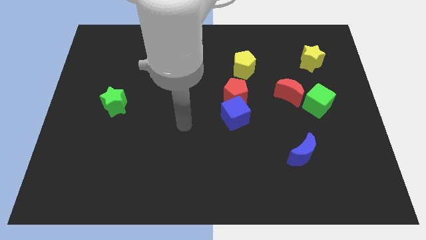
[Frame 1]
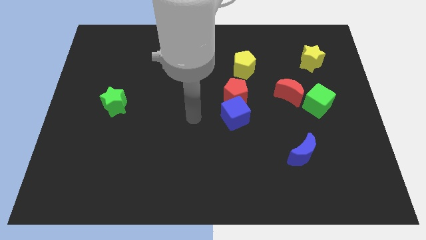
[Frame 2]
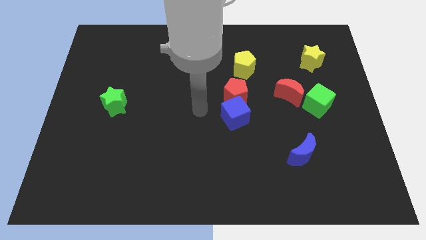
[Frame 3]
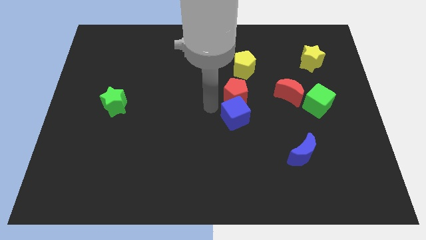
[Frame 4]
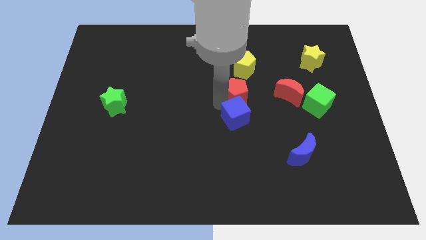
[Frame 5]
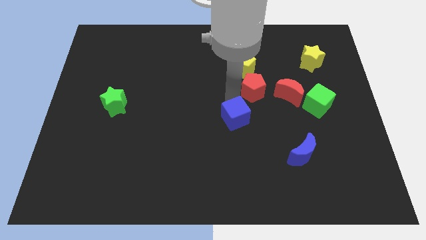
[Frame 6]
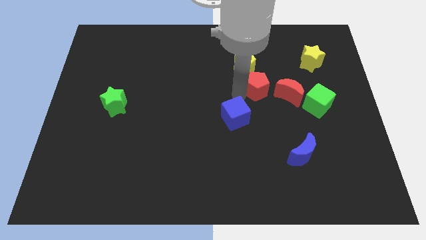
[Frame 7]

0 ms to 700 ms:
pull the blue cube apart from the red pentagon

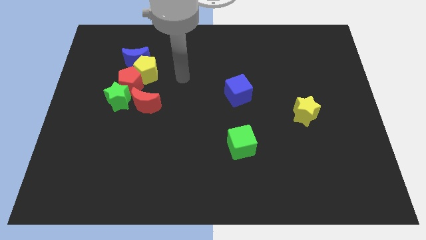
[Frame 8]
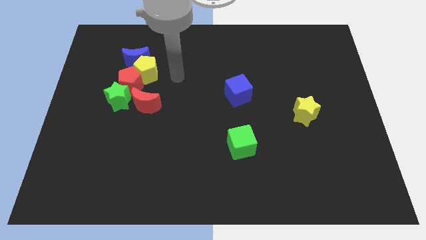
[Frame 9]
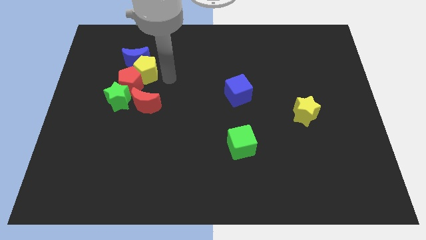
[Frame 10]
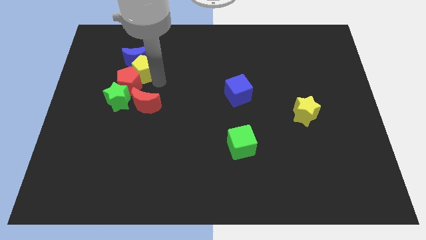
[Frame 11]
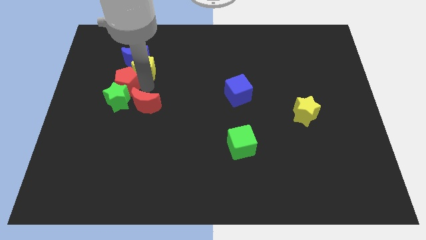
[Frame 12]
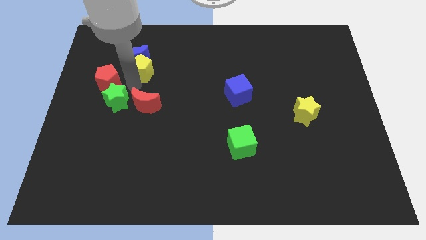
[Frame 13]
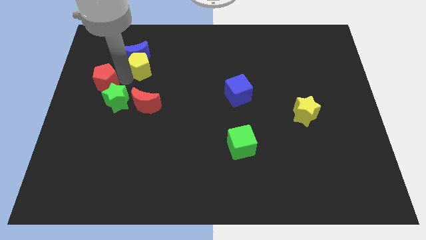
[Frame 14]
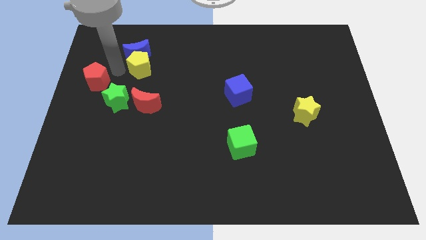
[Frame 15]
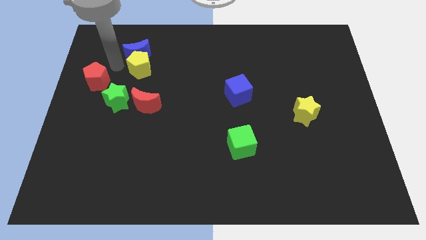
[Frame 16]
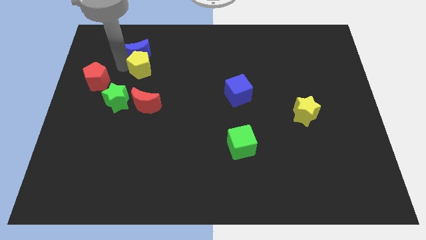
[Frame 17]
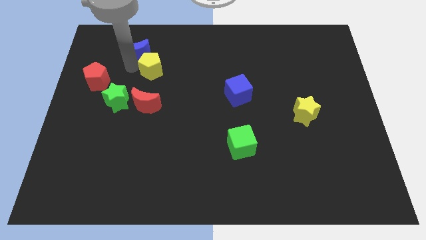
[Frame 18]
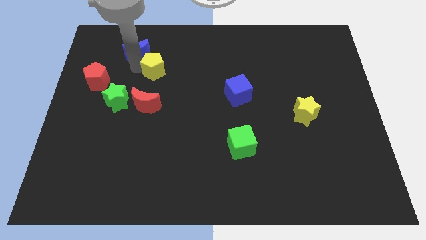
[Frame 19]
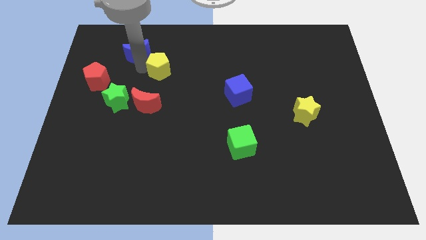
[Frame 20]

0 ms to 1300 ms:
separate the yellow pentagon from the blue moon and red pentagon

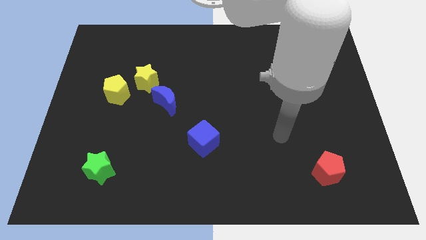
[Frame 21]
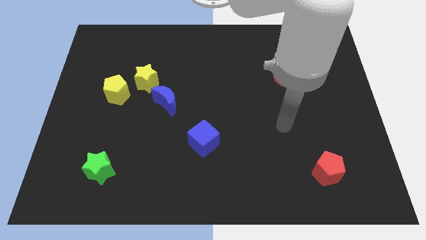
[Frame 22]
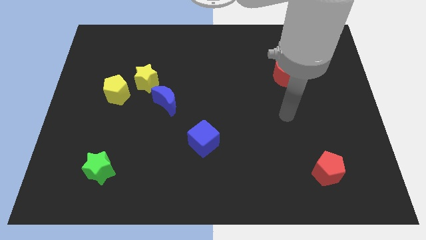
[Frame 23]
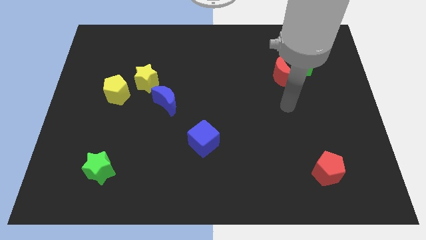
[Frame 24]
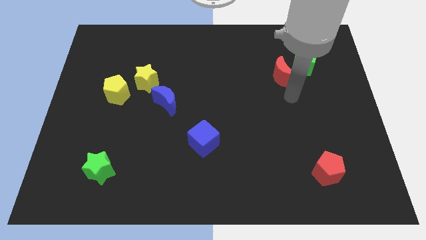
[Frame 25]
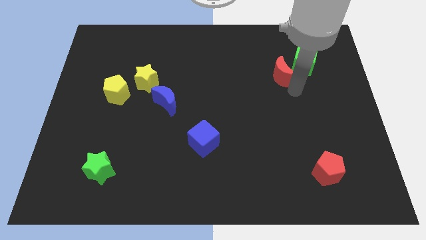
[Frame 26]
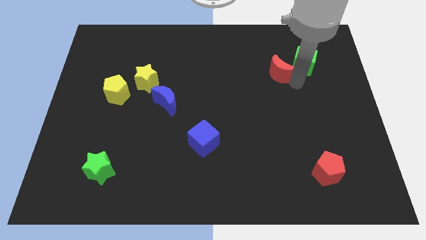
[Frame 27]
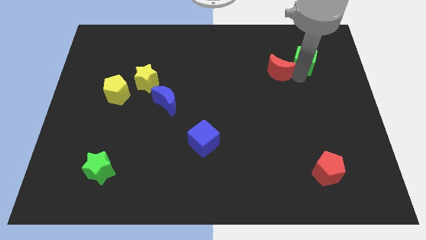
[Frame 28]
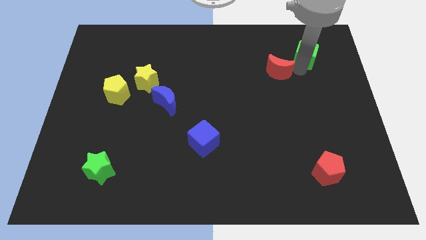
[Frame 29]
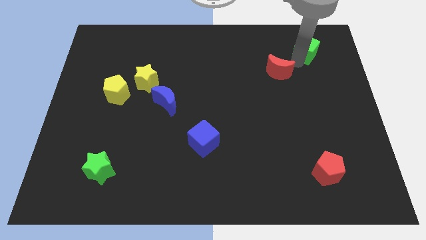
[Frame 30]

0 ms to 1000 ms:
separate the red moon from the green cube

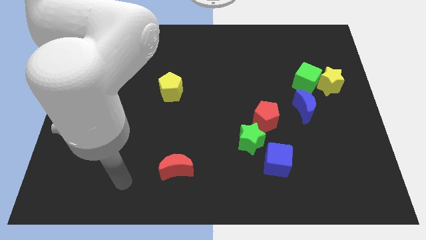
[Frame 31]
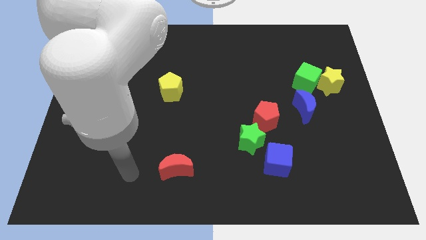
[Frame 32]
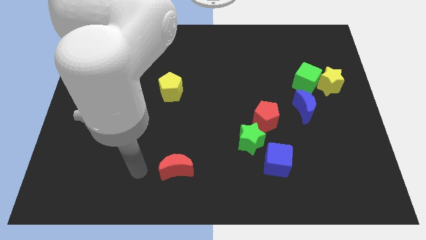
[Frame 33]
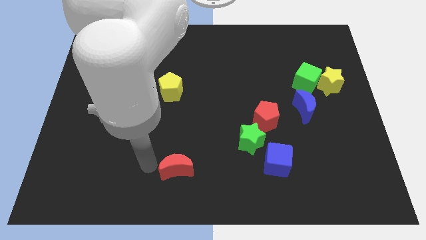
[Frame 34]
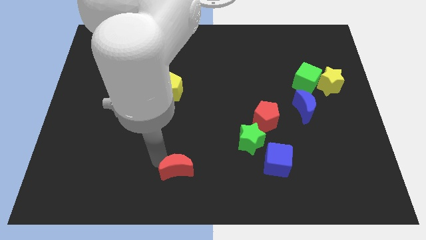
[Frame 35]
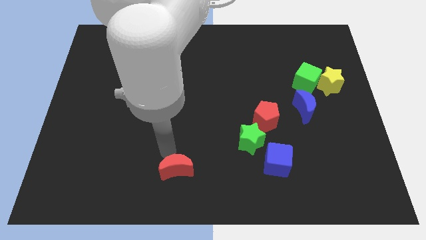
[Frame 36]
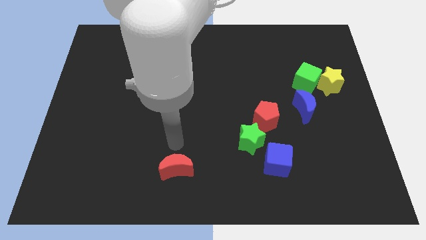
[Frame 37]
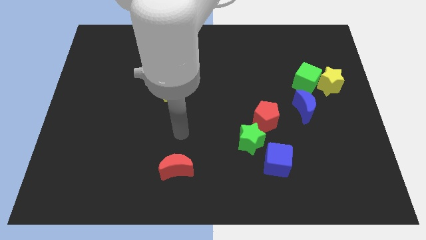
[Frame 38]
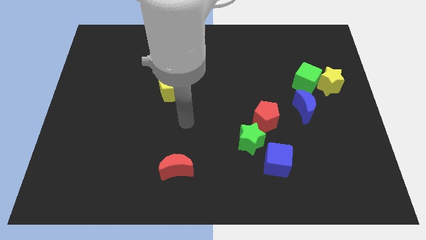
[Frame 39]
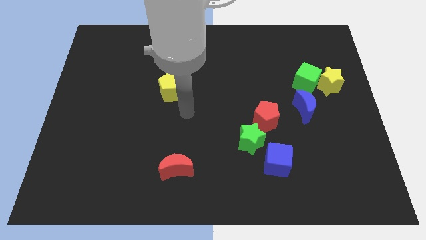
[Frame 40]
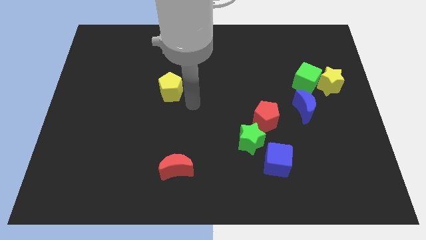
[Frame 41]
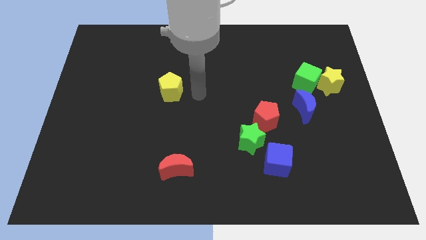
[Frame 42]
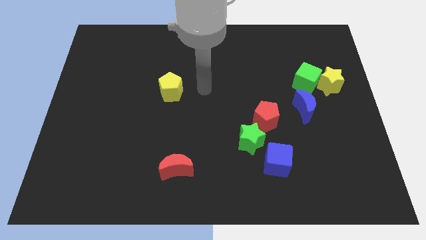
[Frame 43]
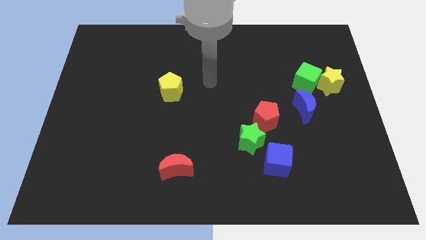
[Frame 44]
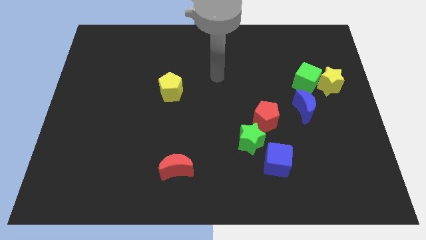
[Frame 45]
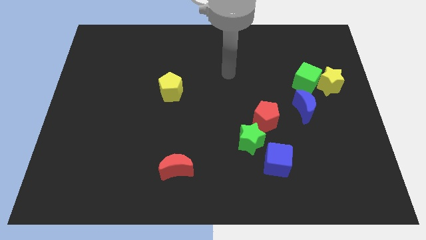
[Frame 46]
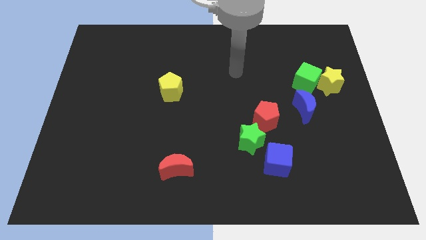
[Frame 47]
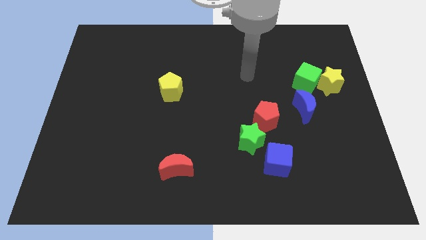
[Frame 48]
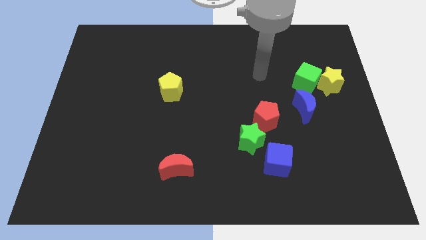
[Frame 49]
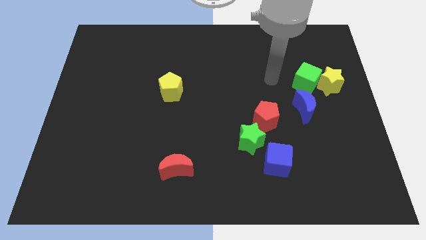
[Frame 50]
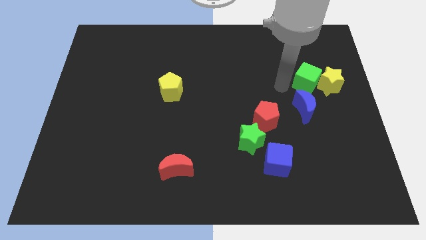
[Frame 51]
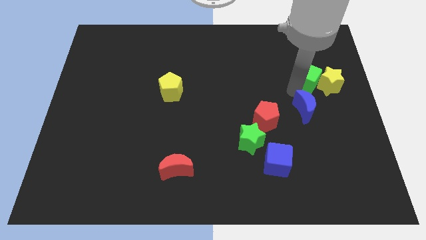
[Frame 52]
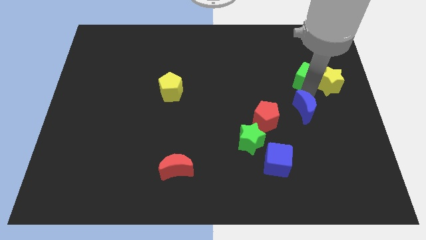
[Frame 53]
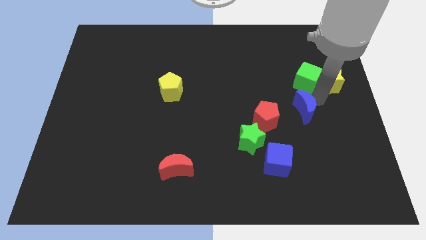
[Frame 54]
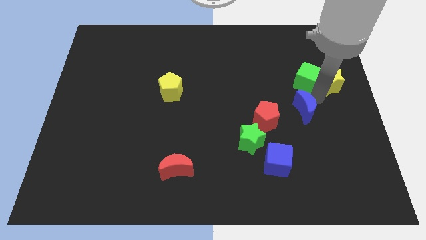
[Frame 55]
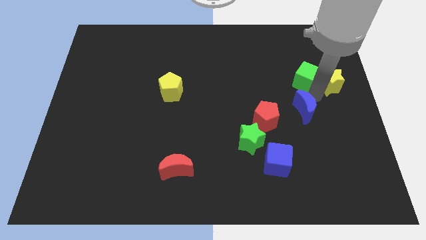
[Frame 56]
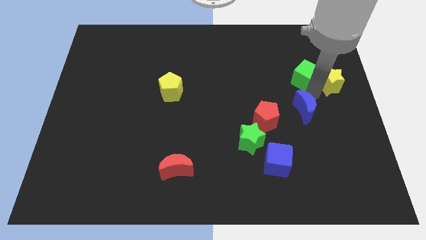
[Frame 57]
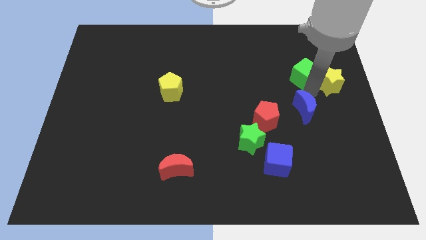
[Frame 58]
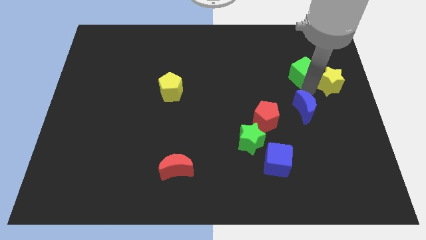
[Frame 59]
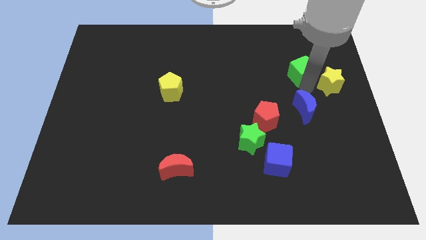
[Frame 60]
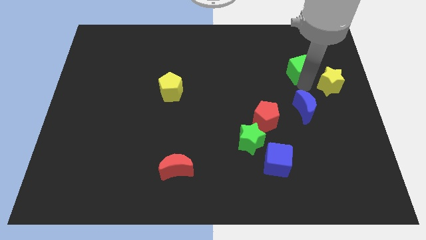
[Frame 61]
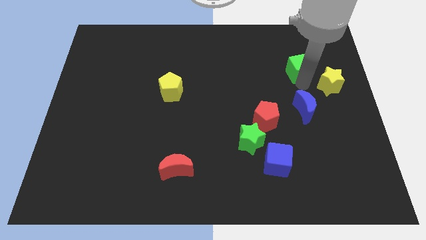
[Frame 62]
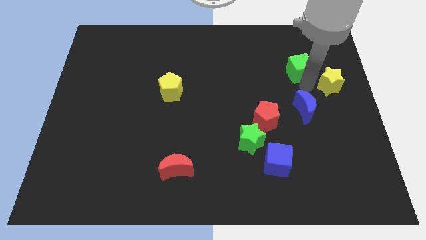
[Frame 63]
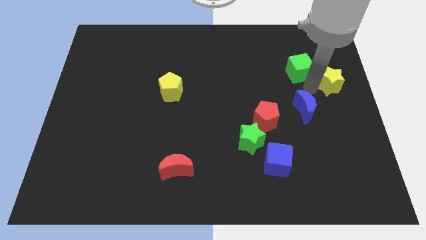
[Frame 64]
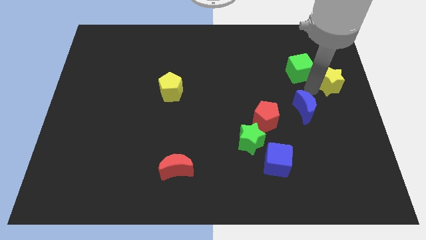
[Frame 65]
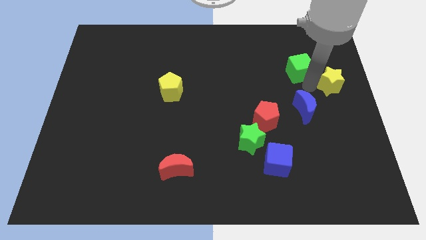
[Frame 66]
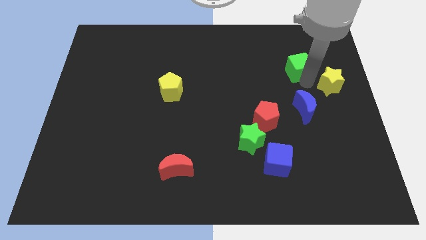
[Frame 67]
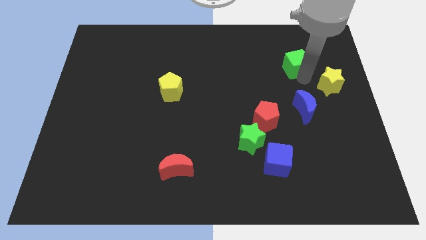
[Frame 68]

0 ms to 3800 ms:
move the green cube away from the yellow star and blue moon

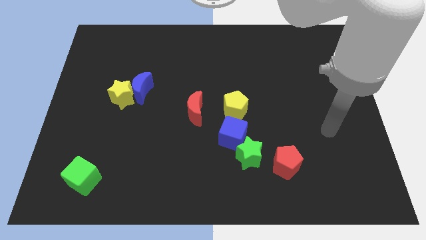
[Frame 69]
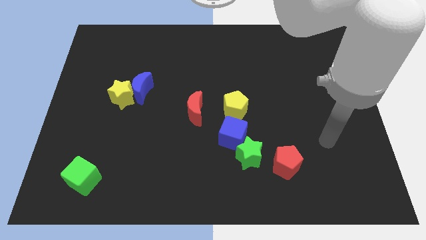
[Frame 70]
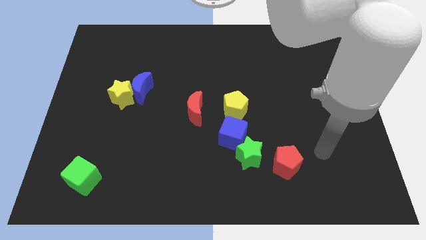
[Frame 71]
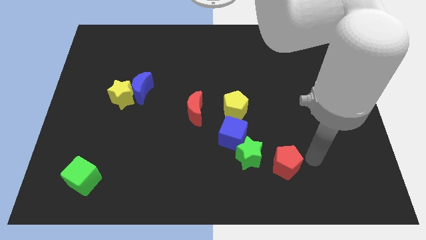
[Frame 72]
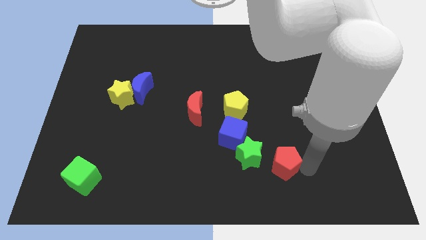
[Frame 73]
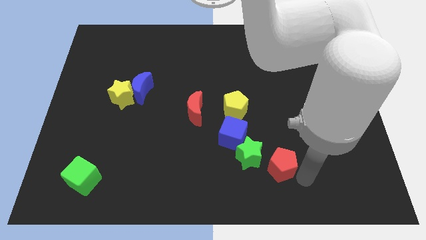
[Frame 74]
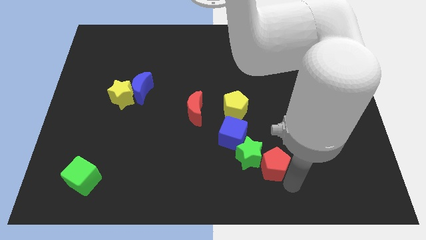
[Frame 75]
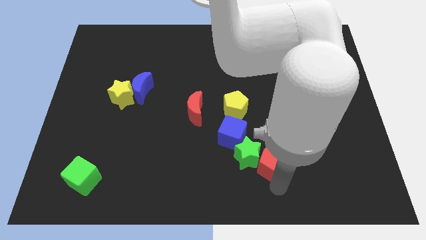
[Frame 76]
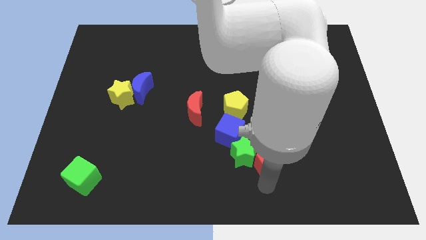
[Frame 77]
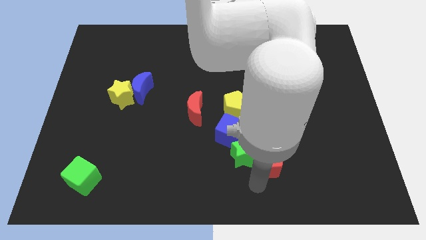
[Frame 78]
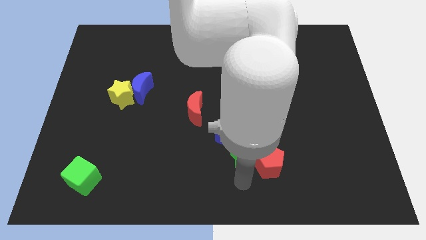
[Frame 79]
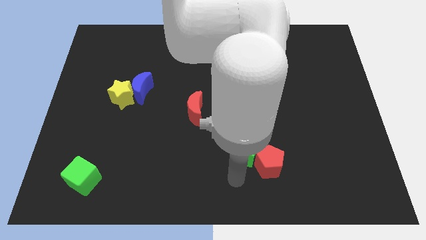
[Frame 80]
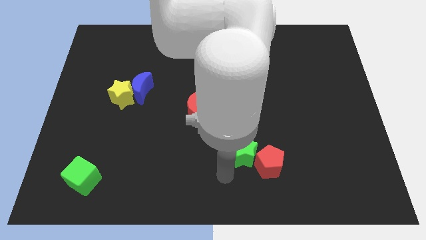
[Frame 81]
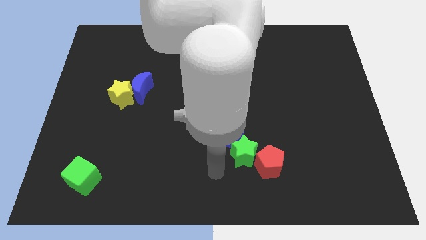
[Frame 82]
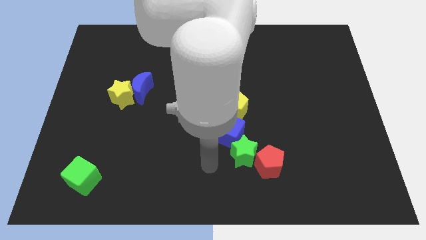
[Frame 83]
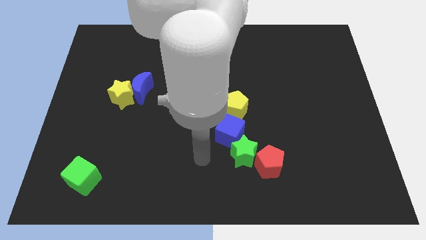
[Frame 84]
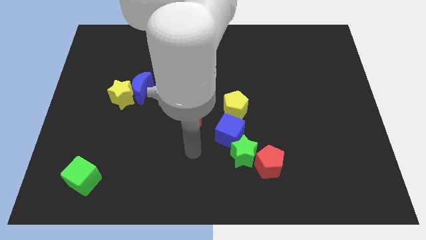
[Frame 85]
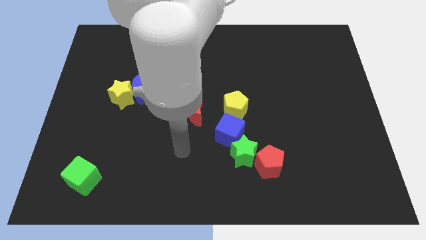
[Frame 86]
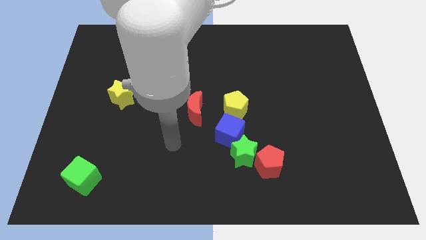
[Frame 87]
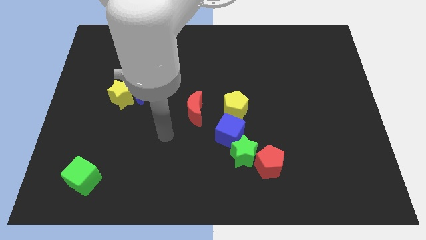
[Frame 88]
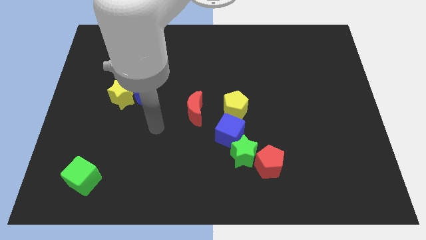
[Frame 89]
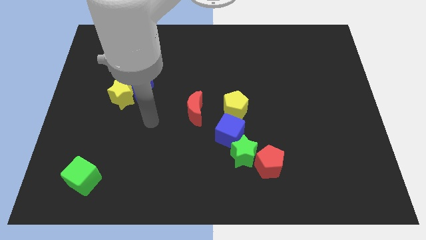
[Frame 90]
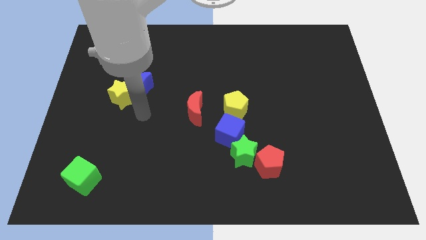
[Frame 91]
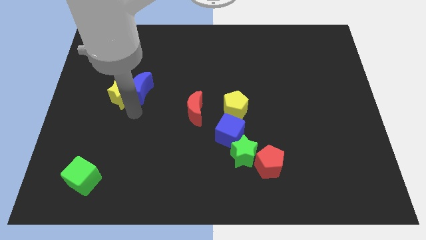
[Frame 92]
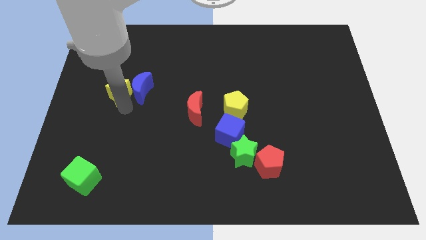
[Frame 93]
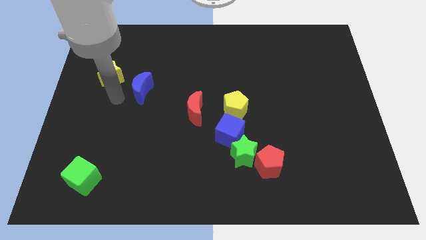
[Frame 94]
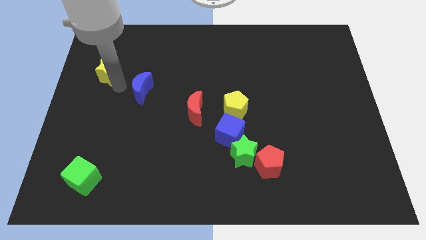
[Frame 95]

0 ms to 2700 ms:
pull the blue moon apart from the yellow star
